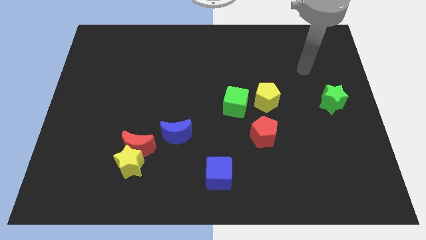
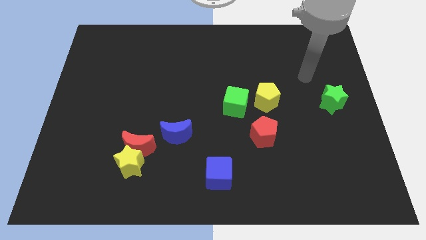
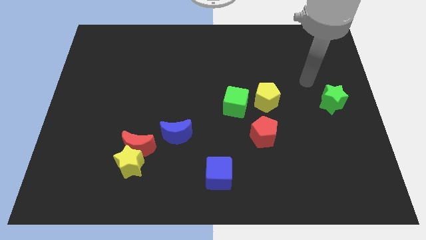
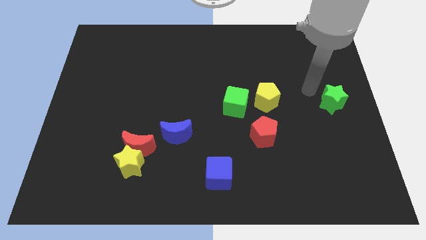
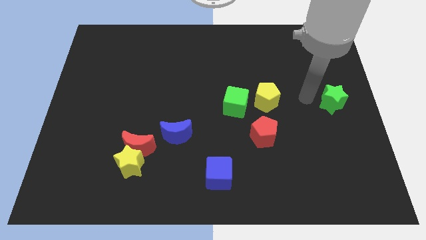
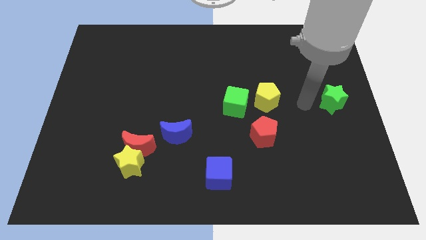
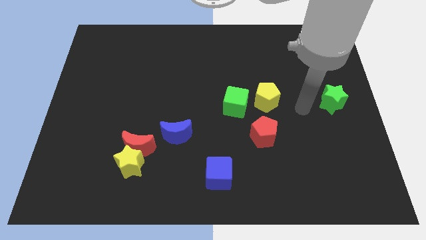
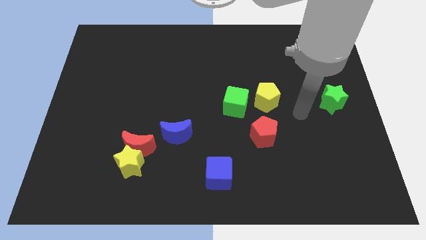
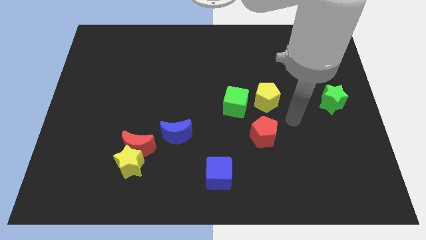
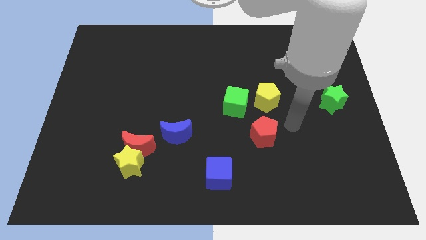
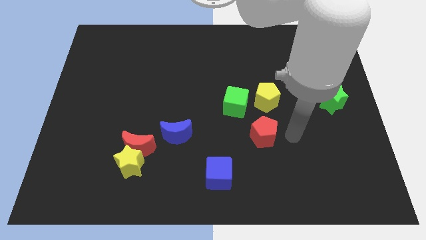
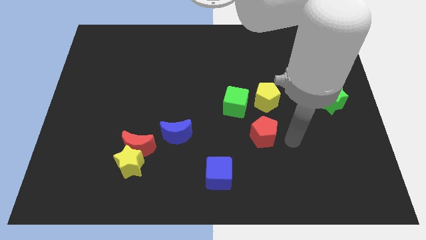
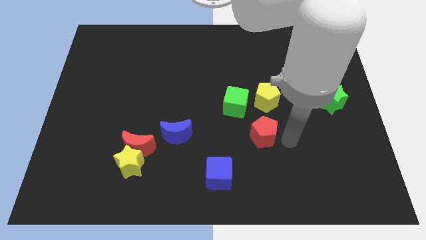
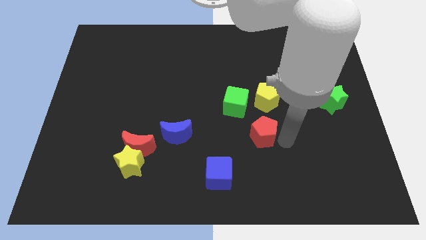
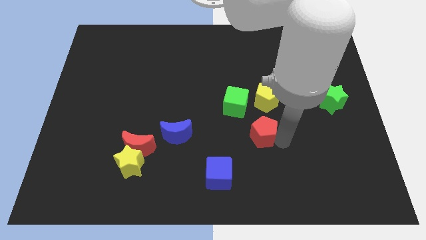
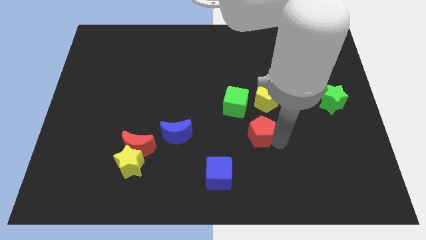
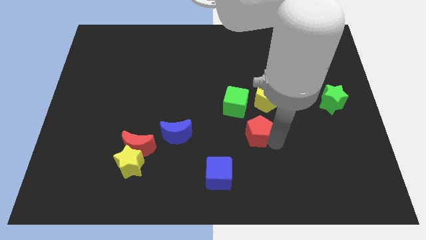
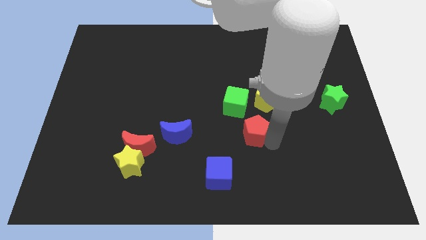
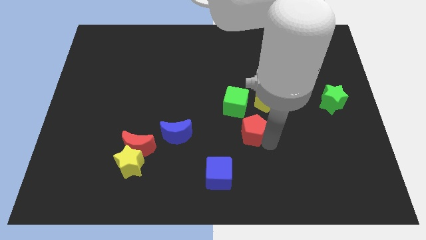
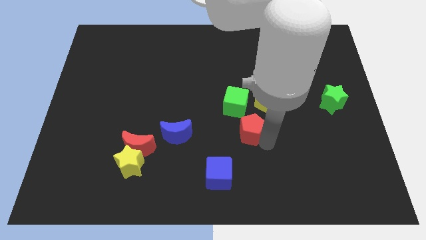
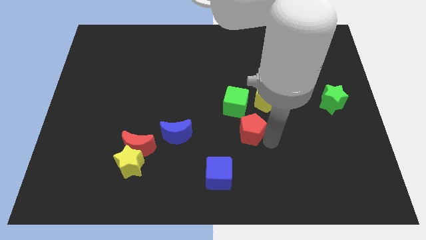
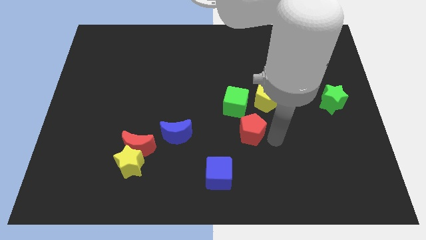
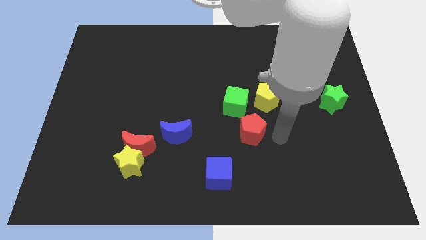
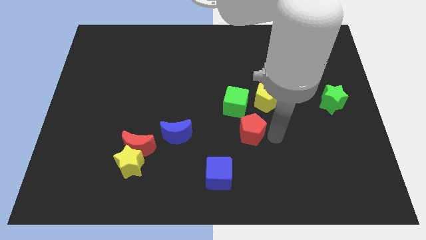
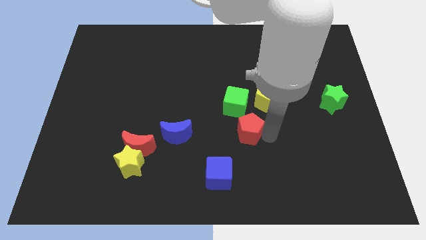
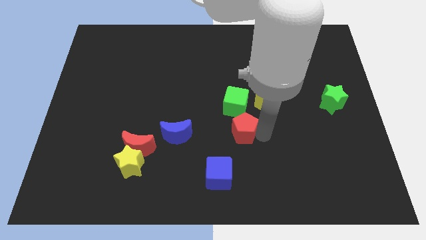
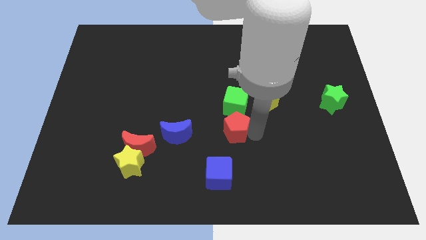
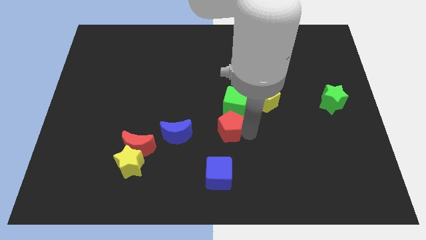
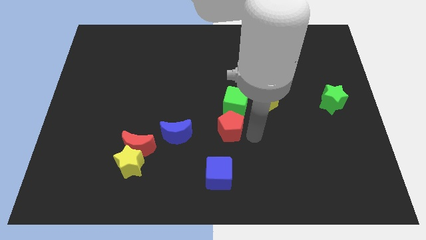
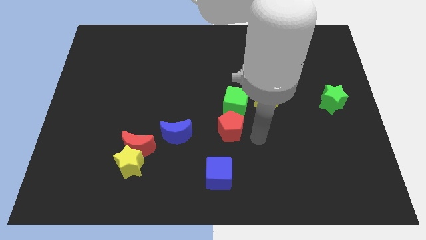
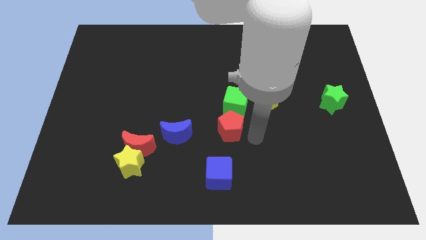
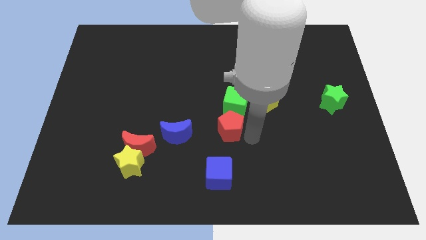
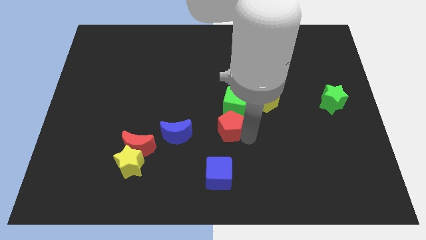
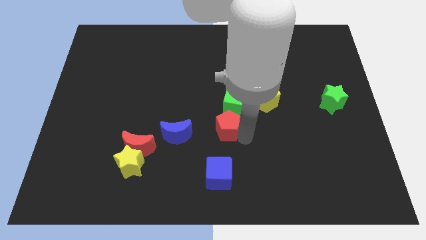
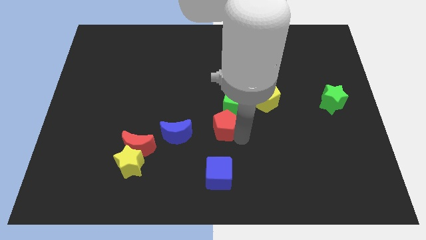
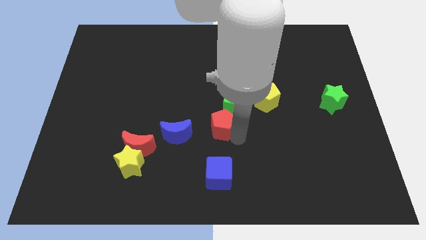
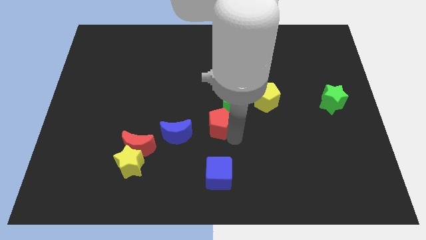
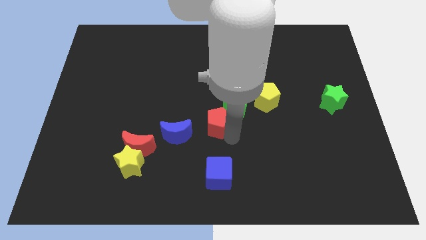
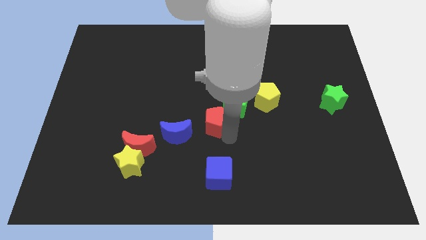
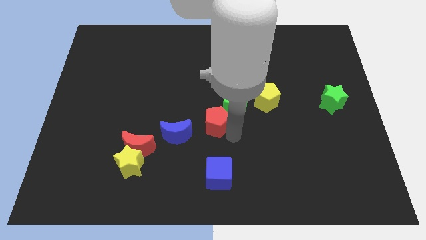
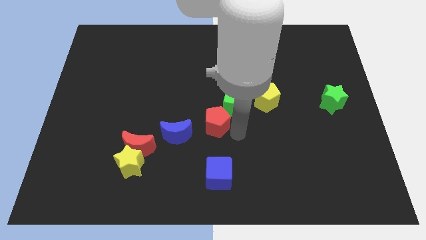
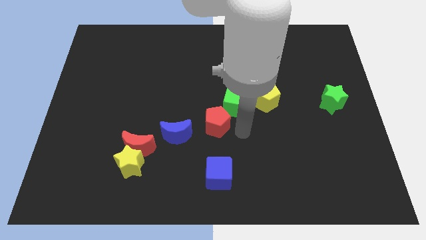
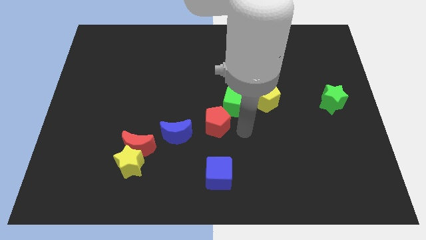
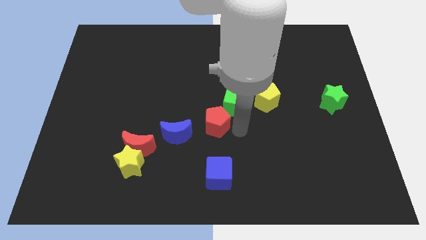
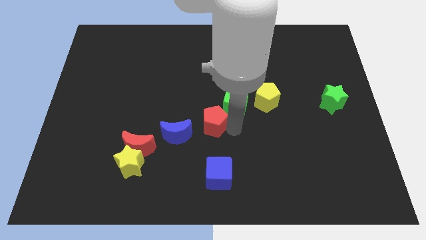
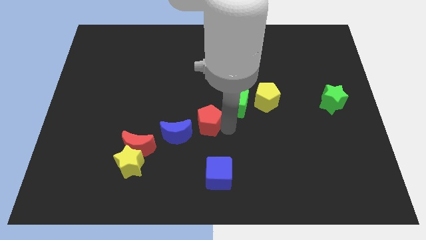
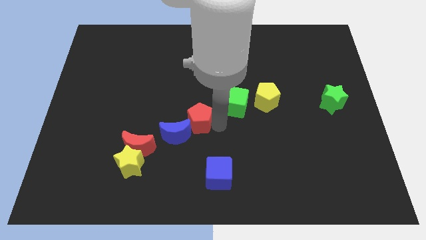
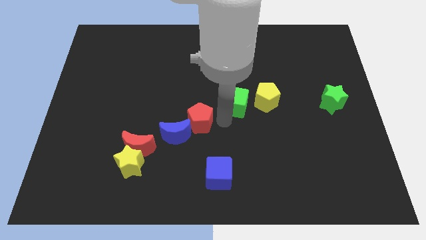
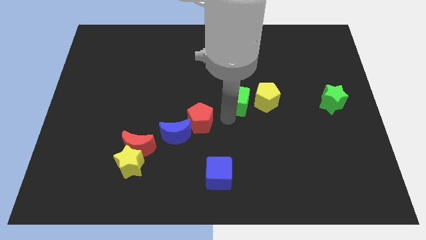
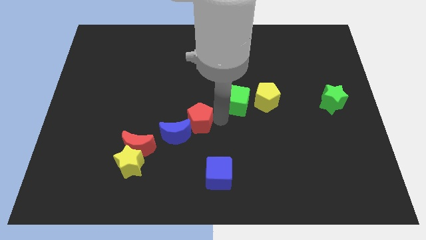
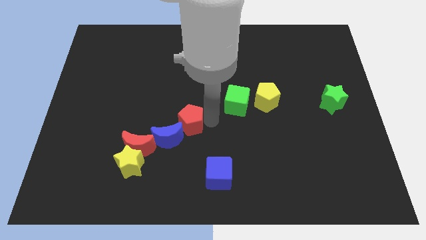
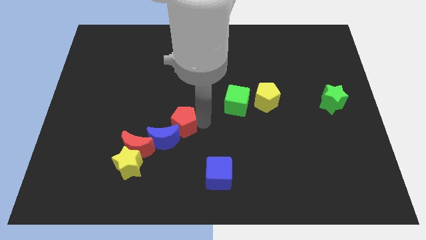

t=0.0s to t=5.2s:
push the red pentagon diagonally up and to the right of the red moon

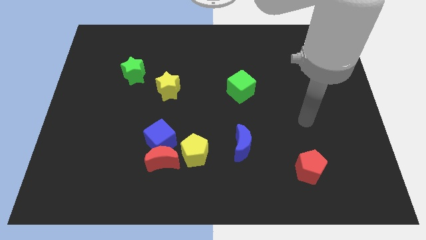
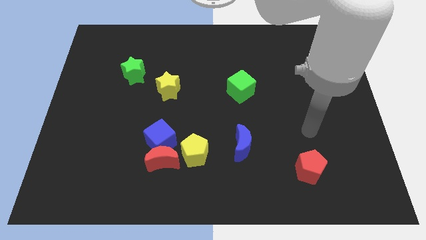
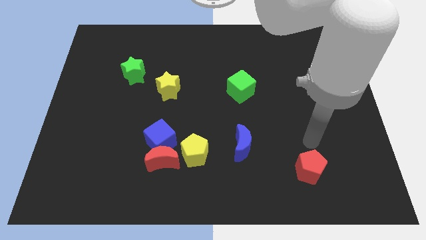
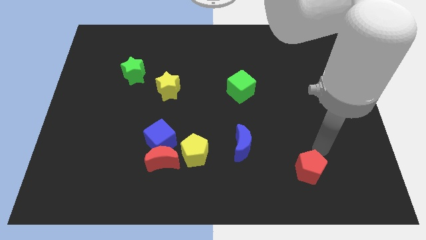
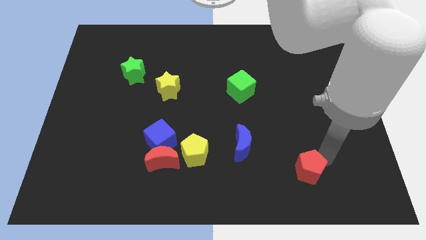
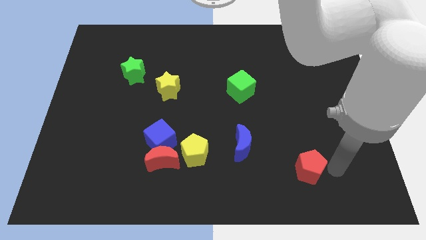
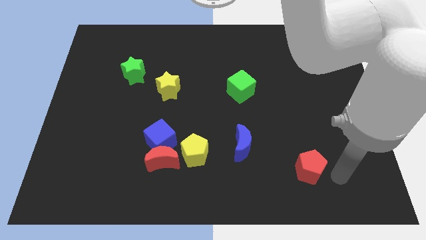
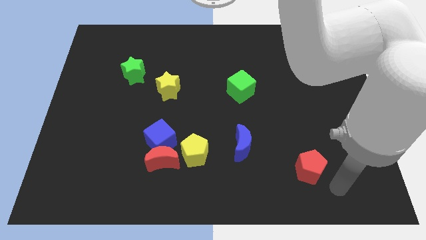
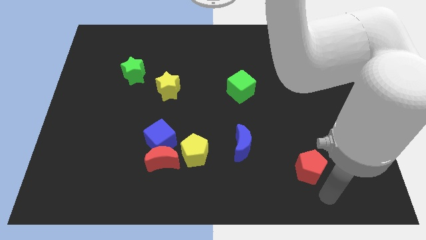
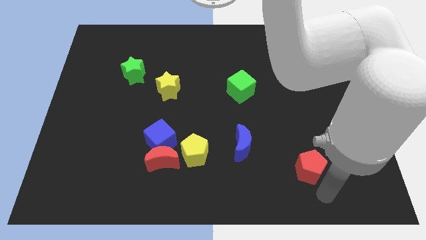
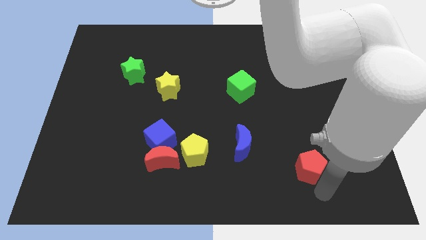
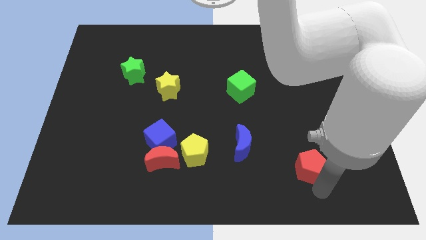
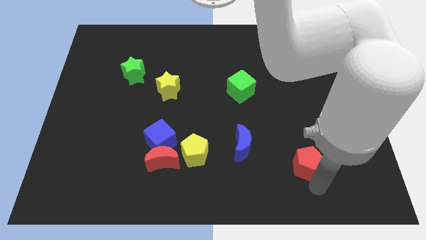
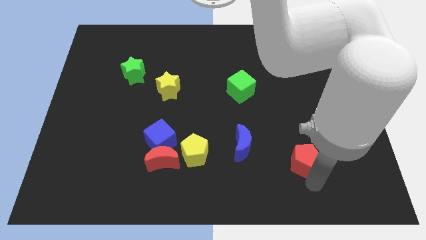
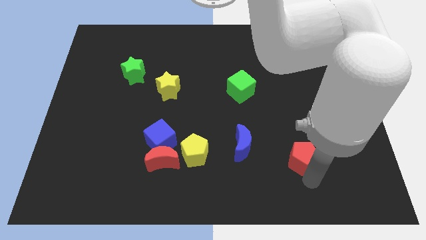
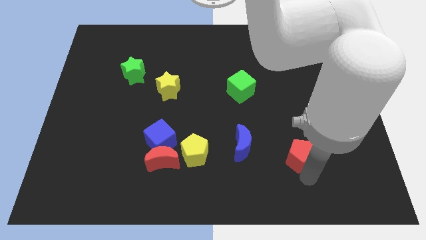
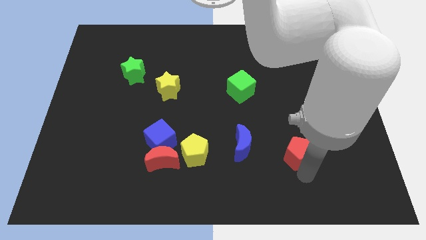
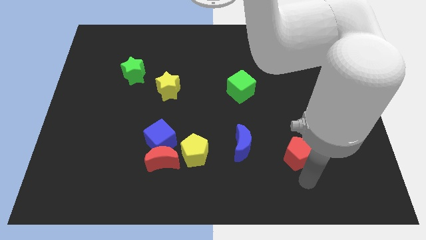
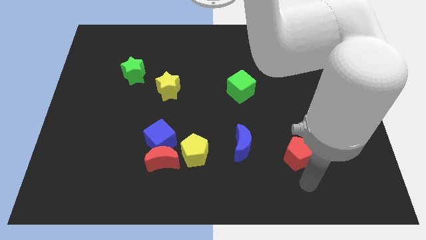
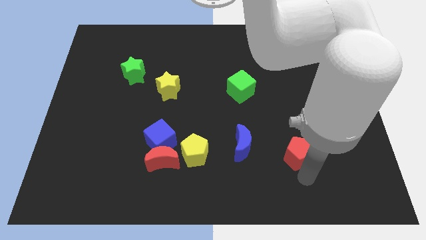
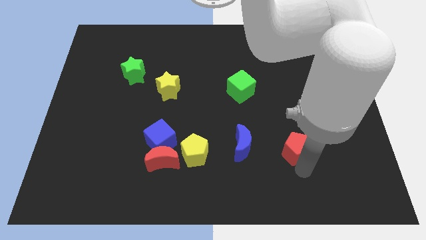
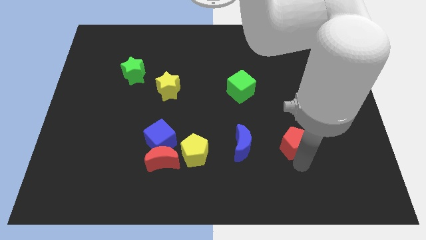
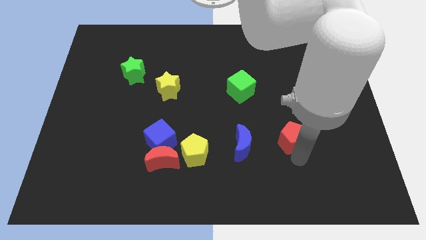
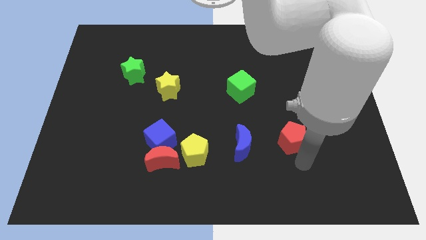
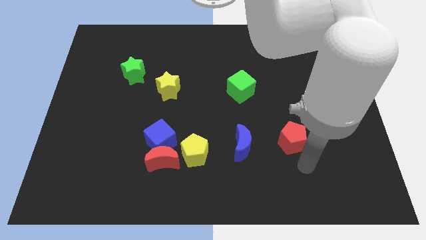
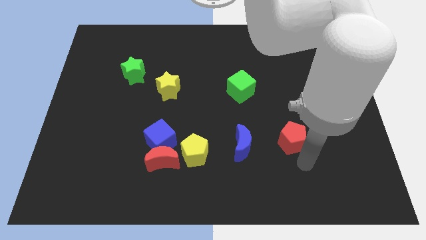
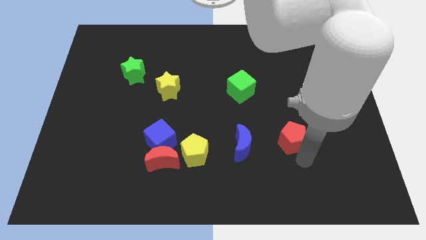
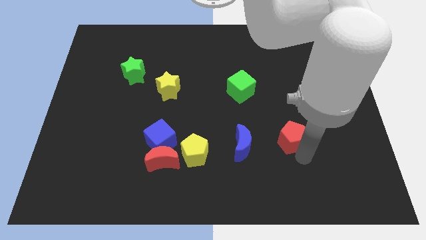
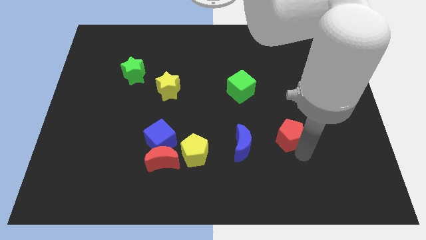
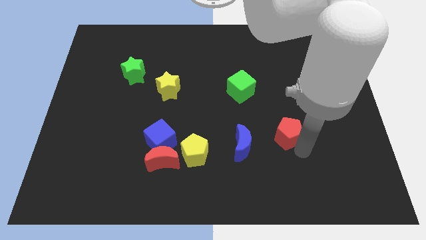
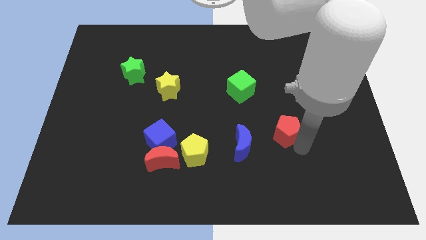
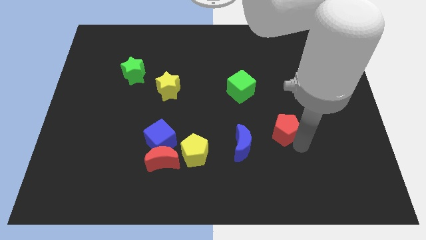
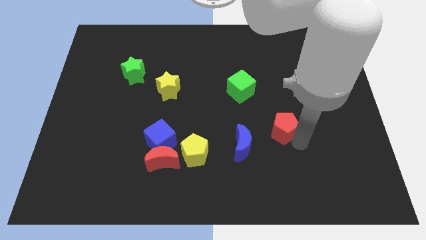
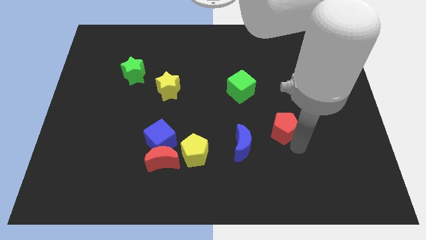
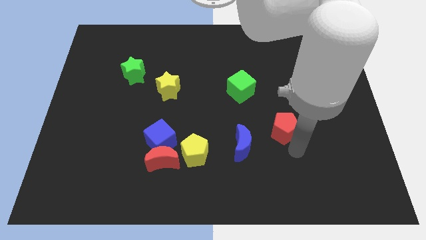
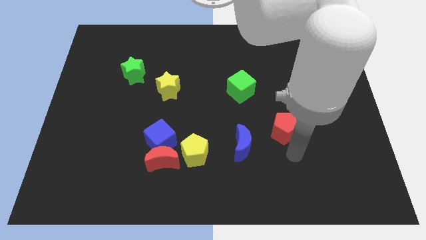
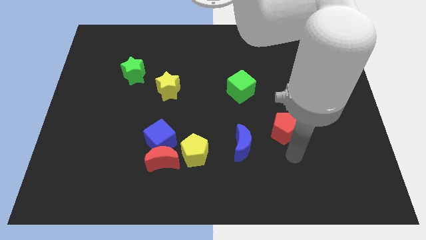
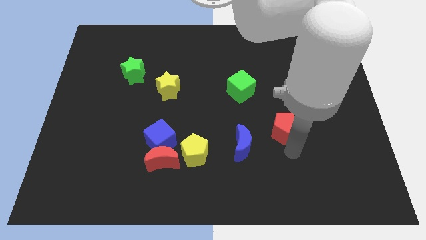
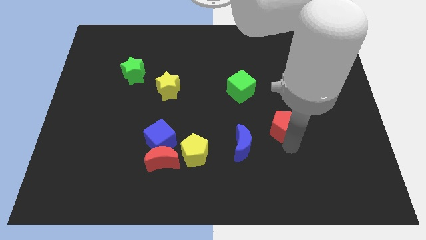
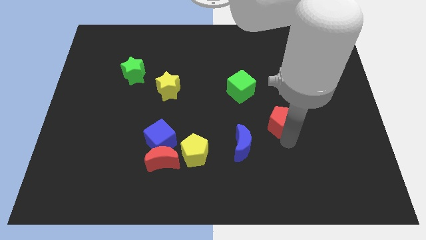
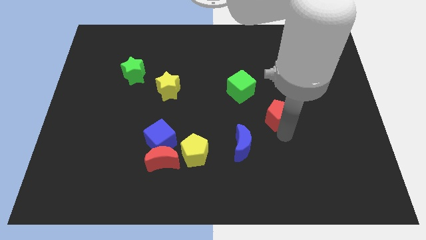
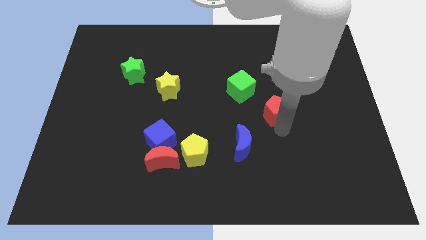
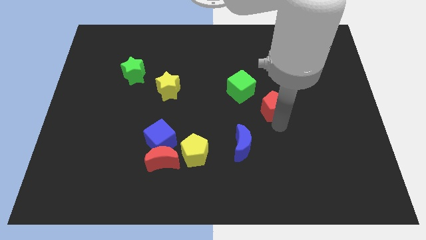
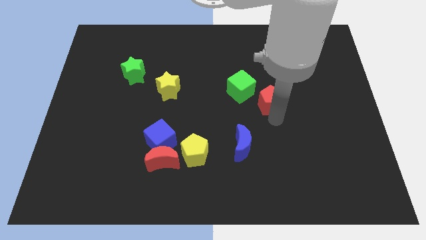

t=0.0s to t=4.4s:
move the red pentagon right of the green cube
